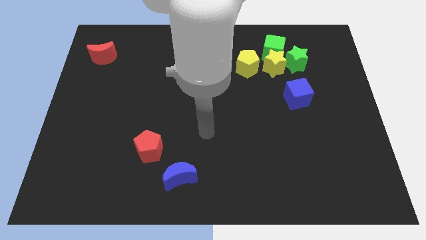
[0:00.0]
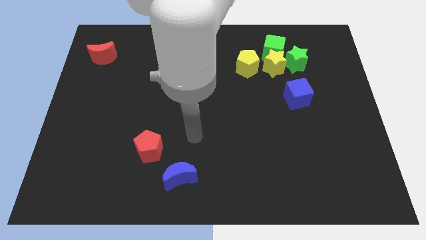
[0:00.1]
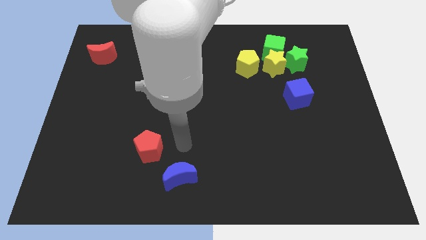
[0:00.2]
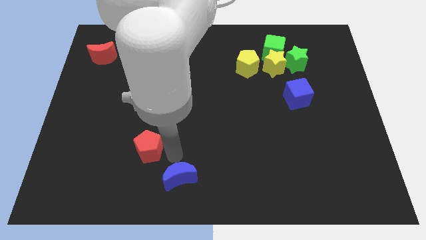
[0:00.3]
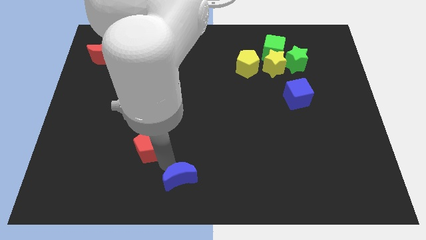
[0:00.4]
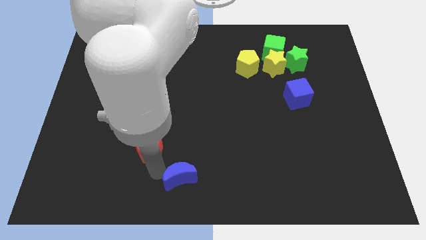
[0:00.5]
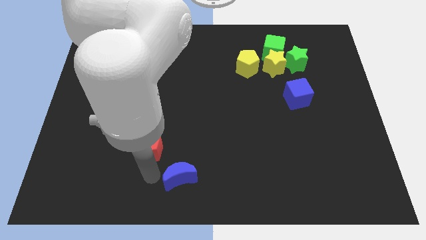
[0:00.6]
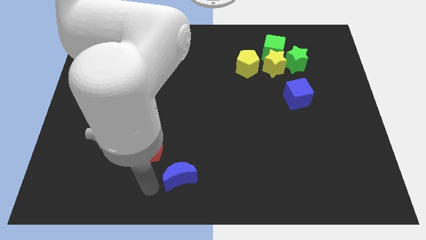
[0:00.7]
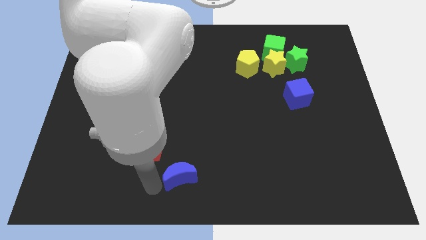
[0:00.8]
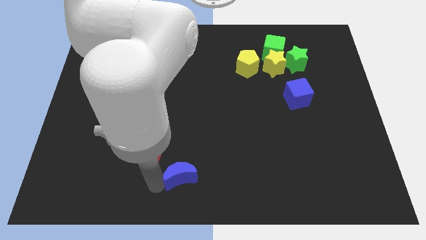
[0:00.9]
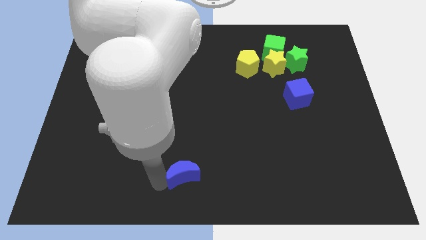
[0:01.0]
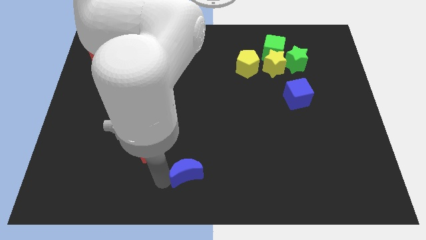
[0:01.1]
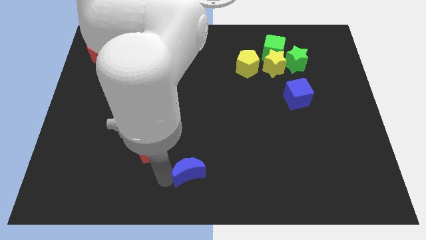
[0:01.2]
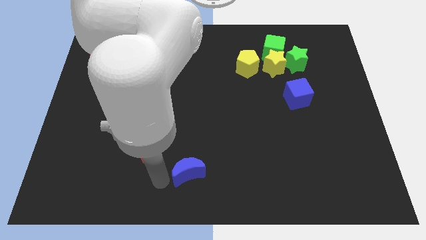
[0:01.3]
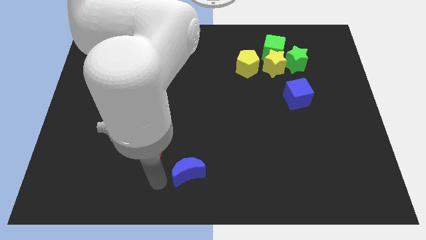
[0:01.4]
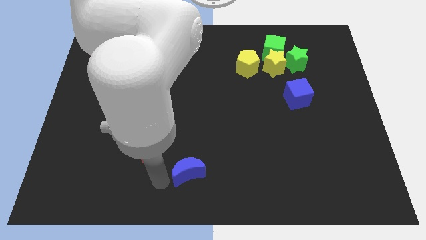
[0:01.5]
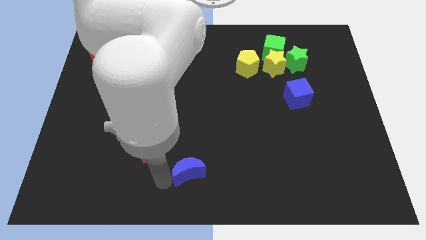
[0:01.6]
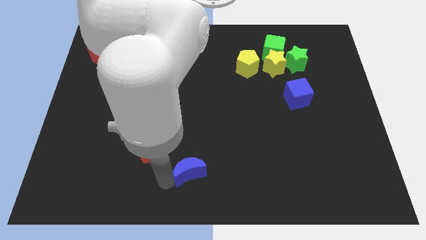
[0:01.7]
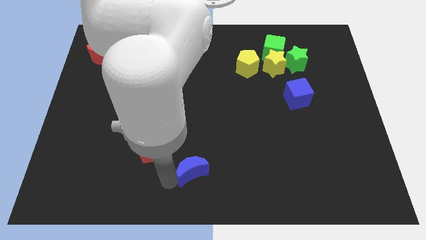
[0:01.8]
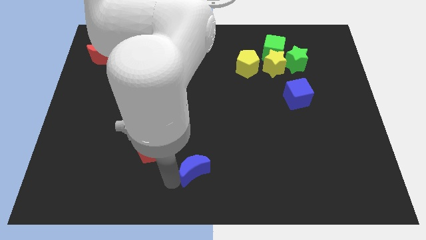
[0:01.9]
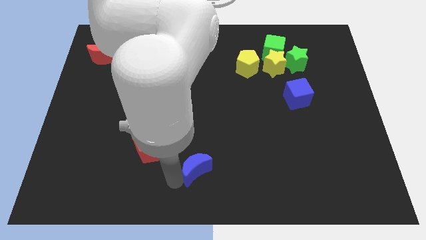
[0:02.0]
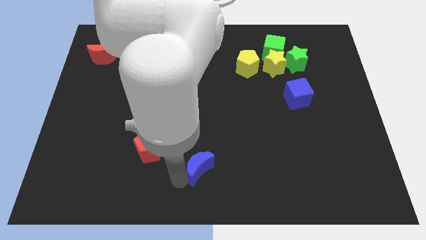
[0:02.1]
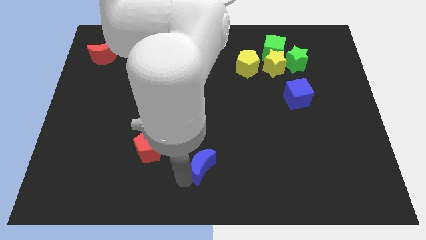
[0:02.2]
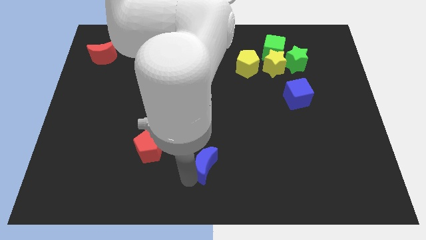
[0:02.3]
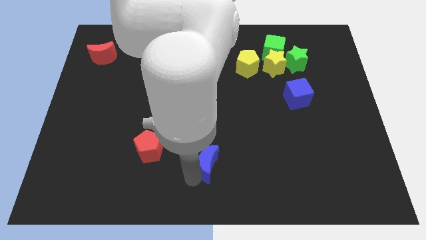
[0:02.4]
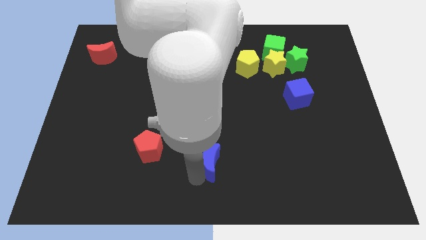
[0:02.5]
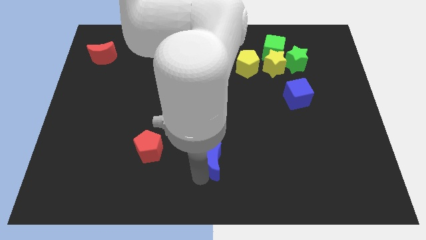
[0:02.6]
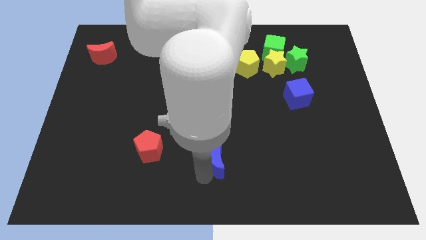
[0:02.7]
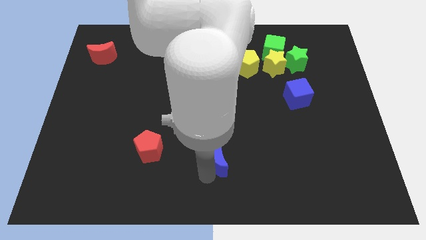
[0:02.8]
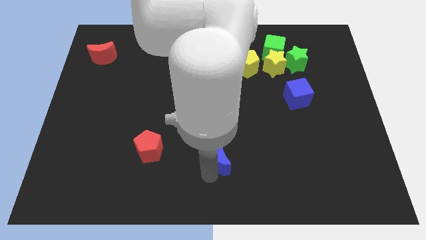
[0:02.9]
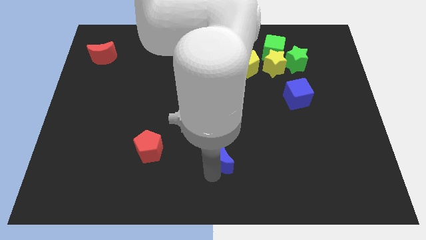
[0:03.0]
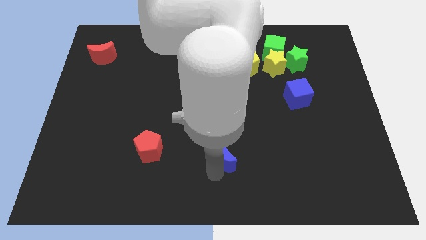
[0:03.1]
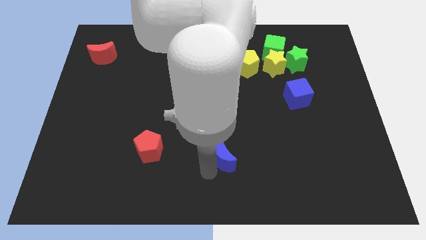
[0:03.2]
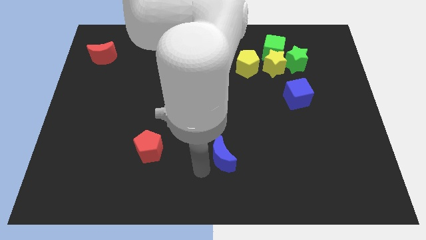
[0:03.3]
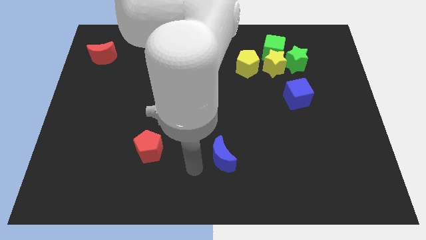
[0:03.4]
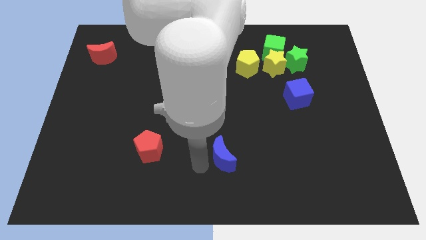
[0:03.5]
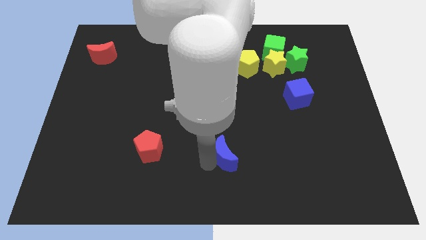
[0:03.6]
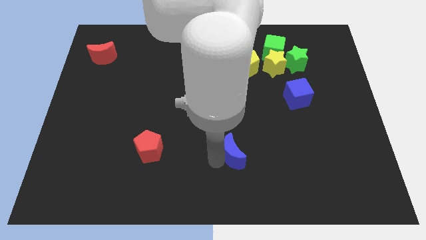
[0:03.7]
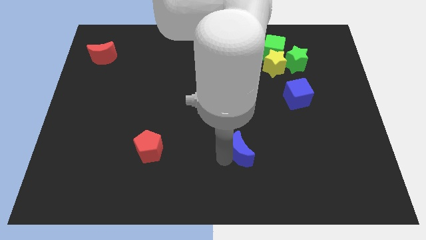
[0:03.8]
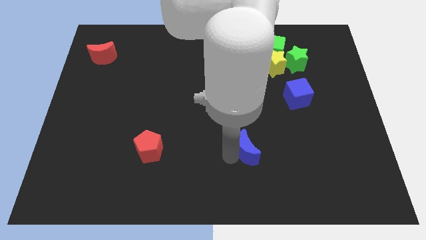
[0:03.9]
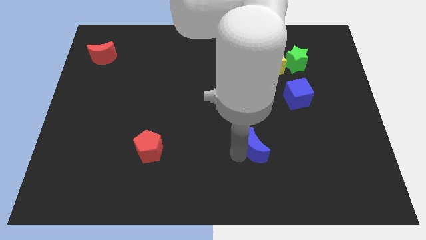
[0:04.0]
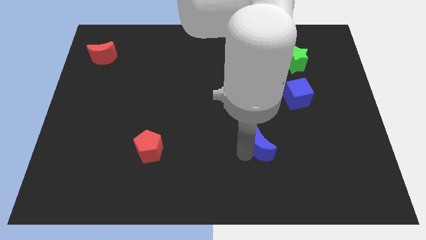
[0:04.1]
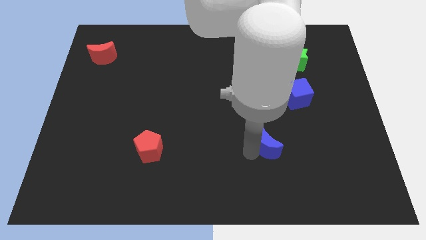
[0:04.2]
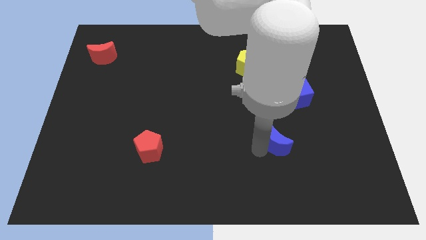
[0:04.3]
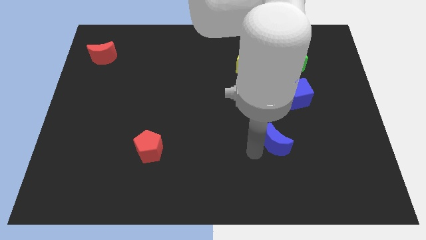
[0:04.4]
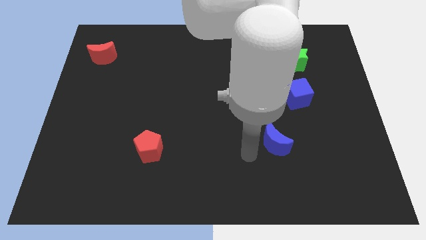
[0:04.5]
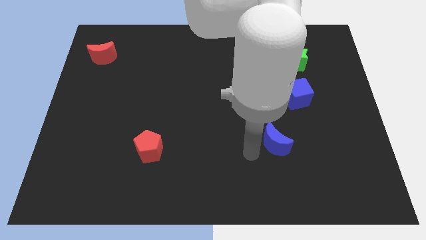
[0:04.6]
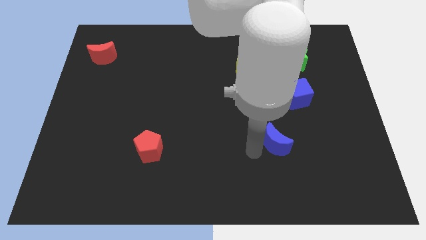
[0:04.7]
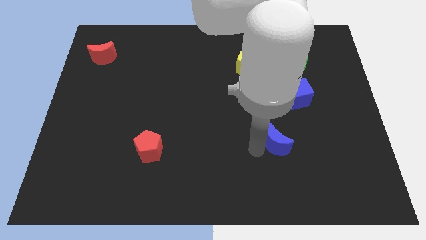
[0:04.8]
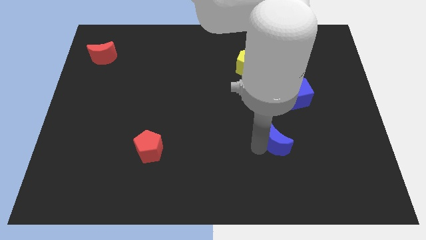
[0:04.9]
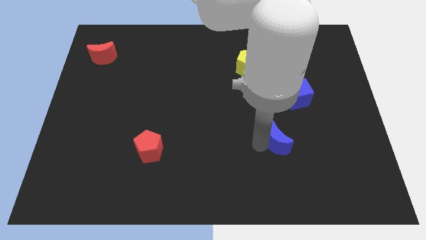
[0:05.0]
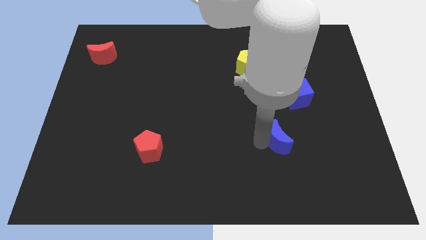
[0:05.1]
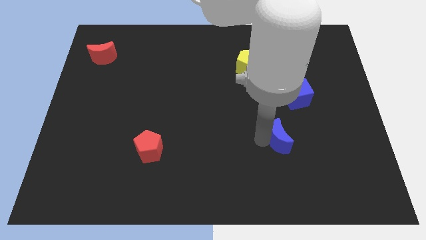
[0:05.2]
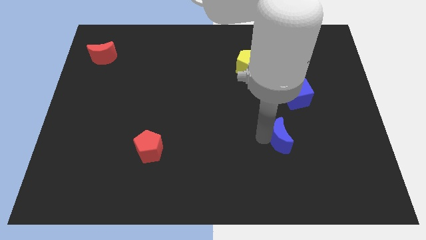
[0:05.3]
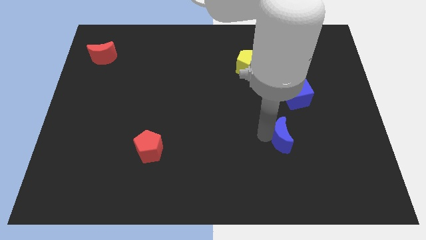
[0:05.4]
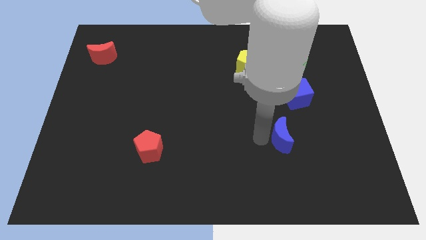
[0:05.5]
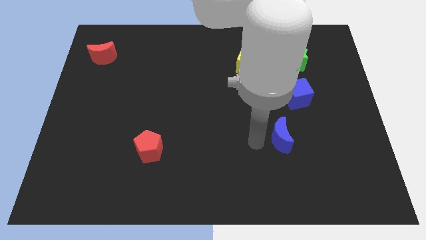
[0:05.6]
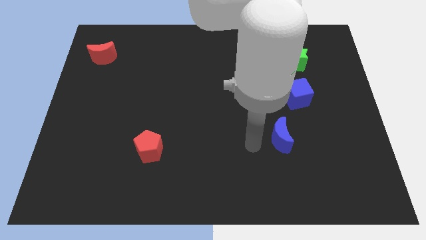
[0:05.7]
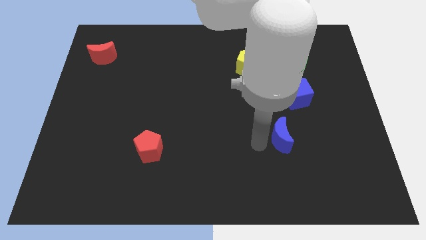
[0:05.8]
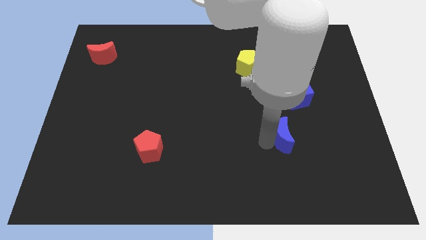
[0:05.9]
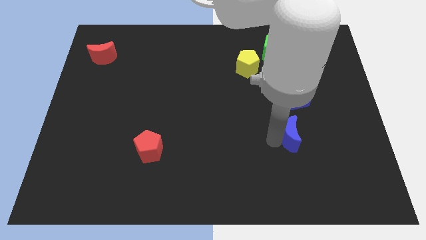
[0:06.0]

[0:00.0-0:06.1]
put the blue moon to the bottom of the blue cube

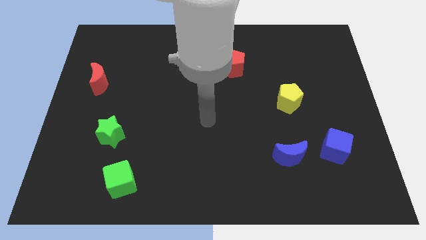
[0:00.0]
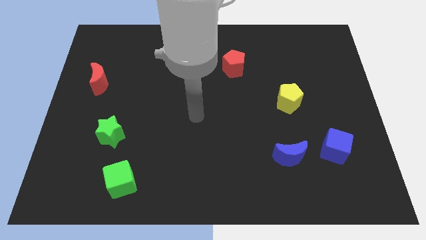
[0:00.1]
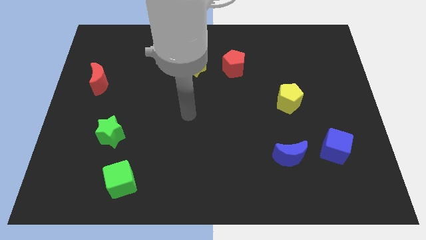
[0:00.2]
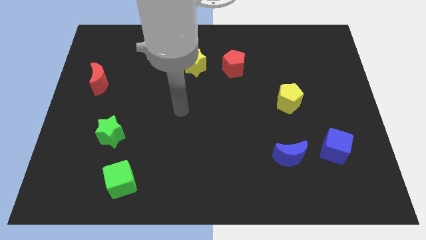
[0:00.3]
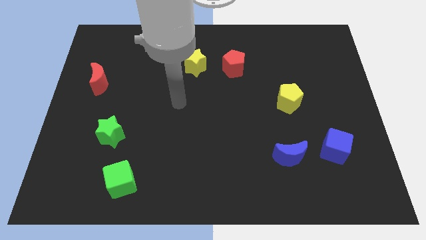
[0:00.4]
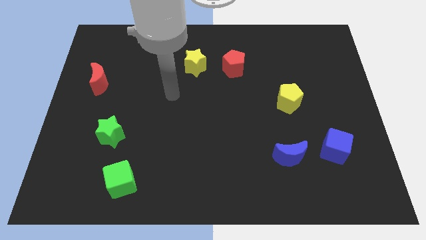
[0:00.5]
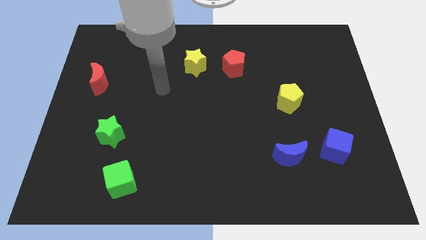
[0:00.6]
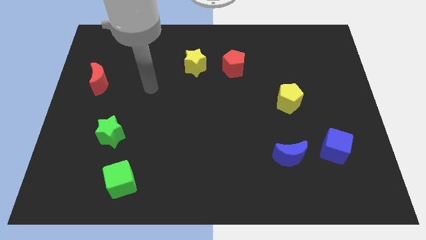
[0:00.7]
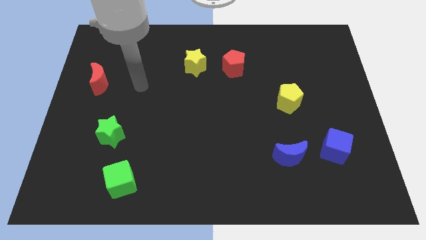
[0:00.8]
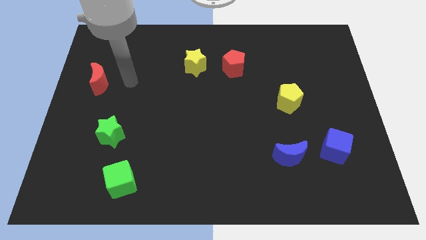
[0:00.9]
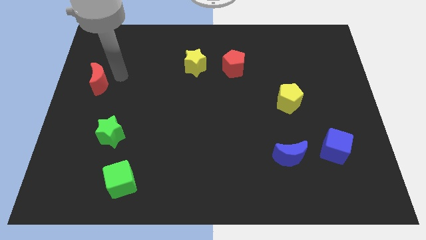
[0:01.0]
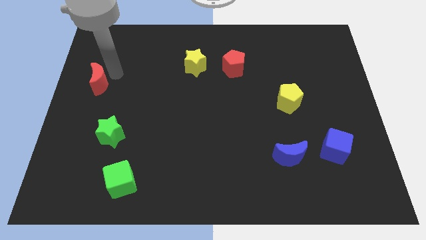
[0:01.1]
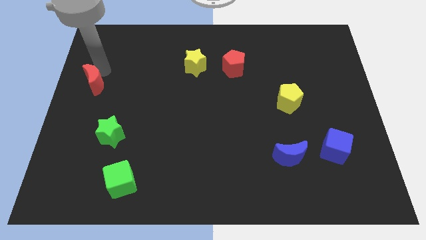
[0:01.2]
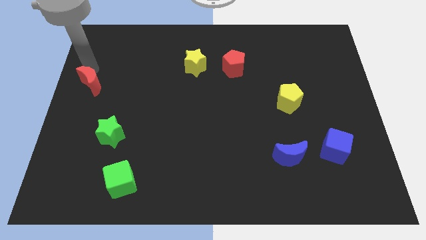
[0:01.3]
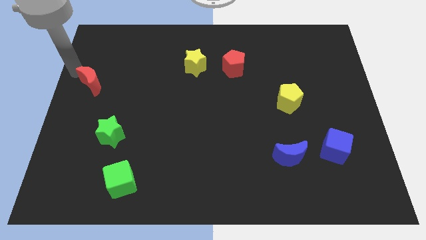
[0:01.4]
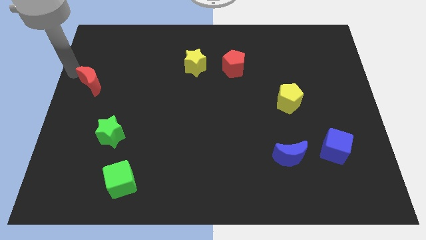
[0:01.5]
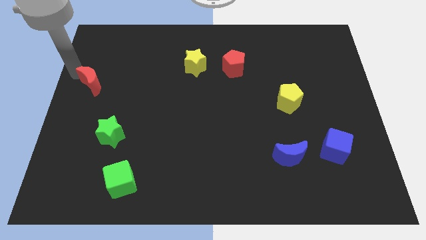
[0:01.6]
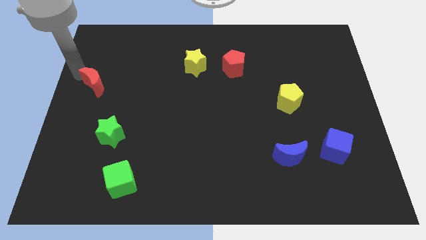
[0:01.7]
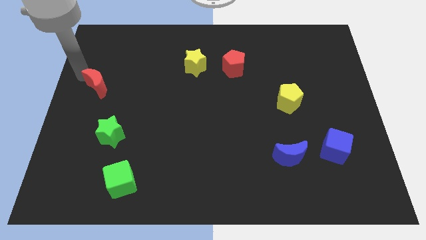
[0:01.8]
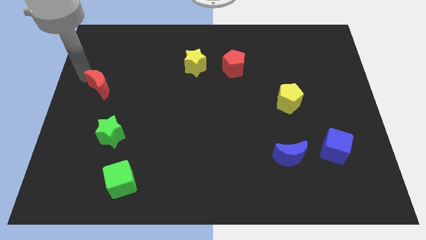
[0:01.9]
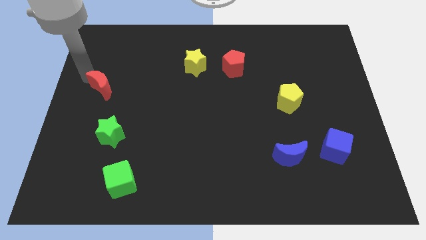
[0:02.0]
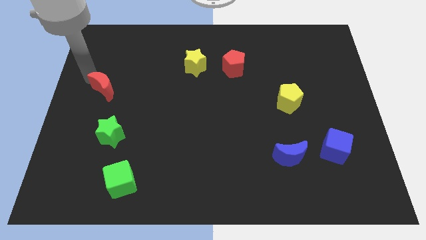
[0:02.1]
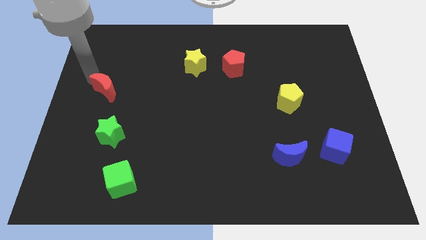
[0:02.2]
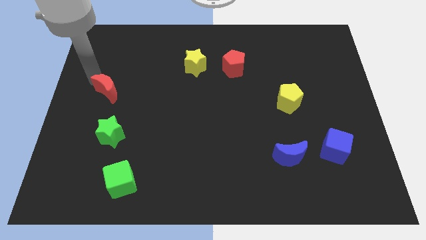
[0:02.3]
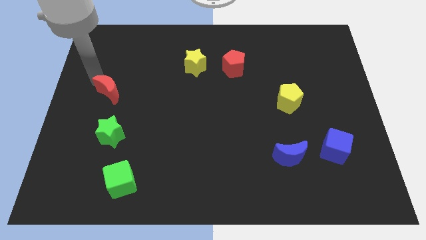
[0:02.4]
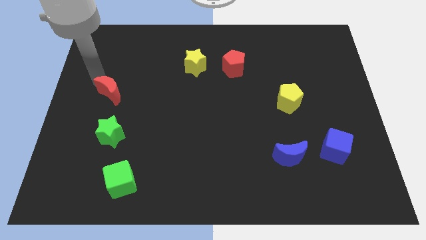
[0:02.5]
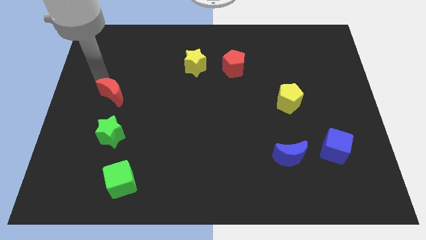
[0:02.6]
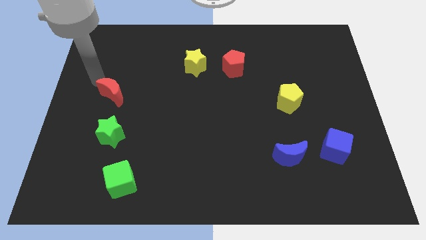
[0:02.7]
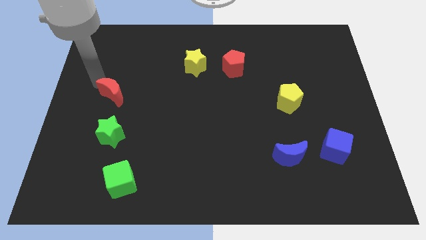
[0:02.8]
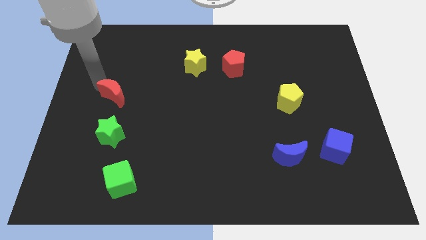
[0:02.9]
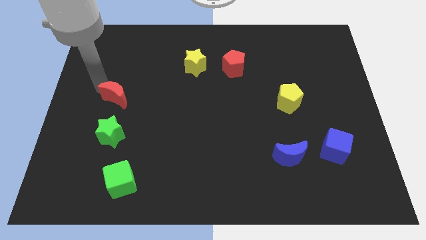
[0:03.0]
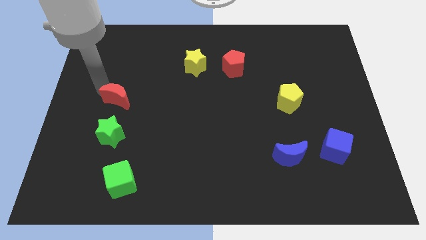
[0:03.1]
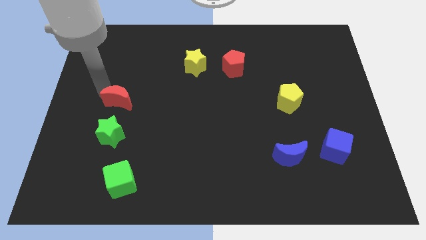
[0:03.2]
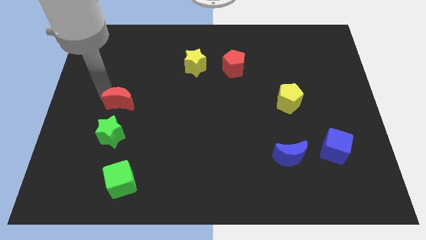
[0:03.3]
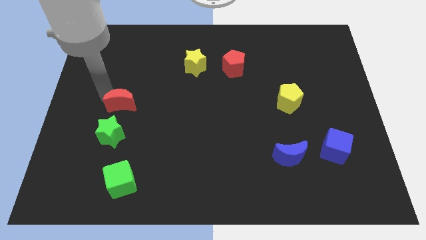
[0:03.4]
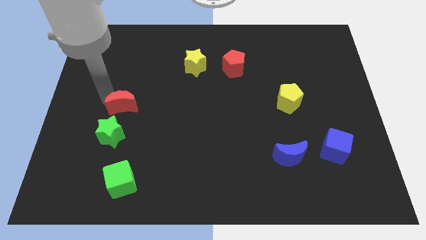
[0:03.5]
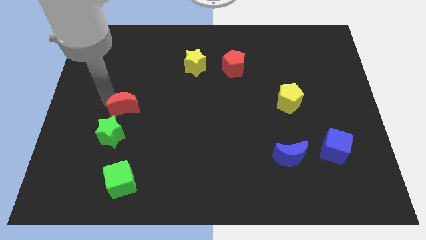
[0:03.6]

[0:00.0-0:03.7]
slide the red moon to the top right of the green star
